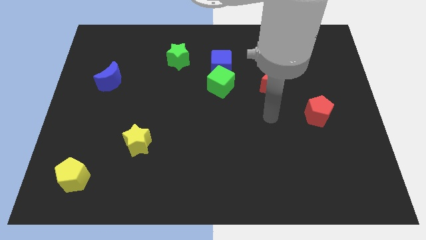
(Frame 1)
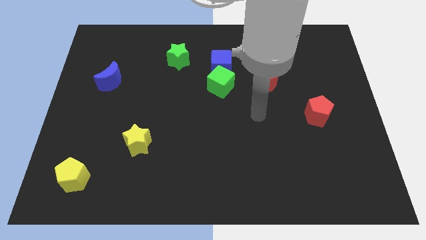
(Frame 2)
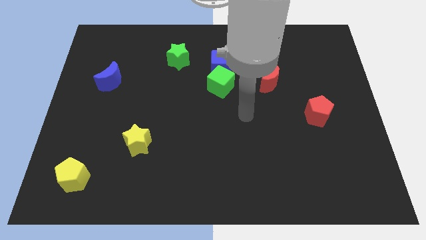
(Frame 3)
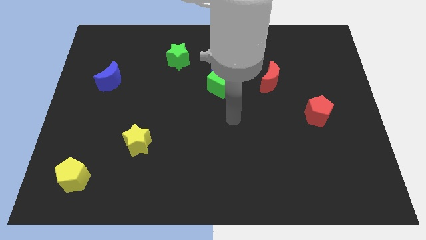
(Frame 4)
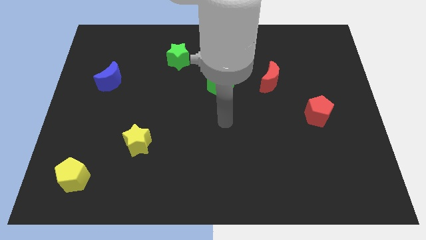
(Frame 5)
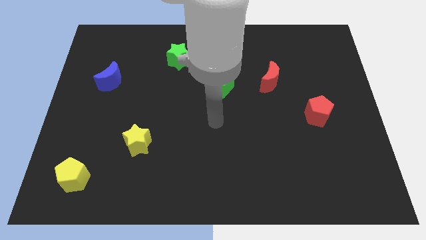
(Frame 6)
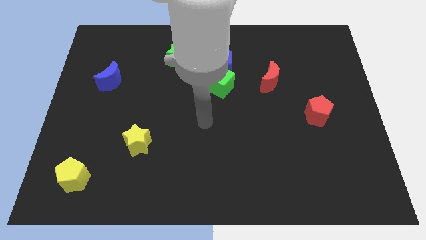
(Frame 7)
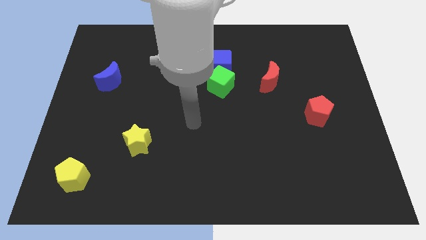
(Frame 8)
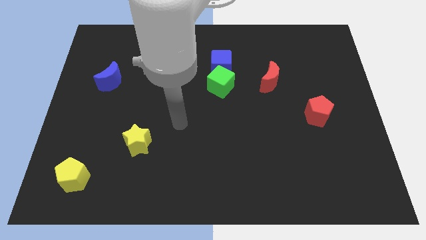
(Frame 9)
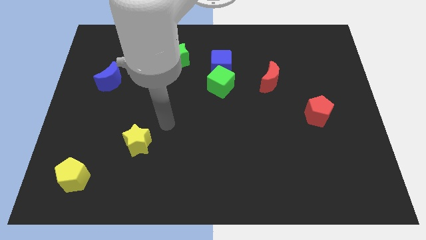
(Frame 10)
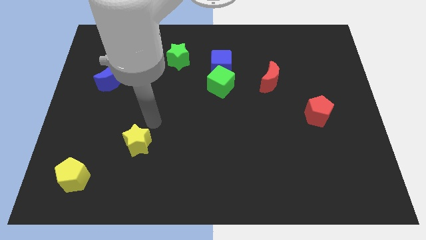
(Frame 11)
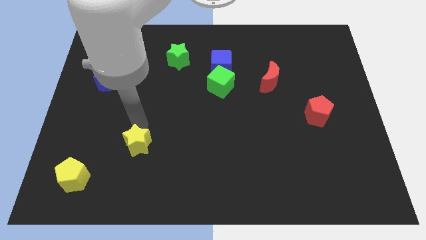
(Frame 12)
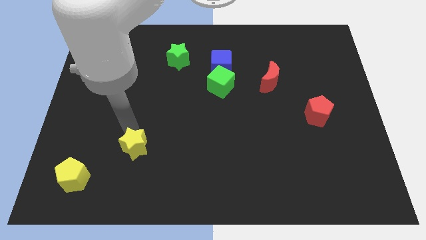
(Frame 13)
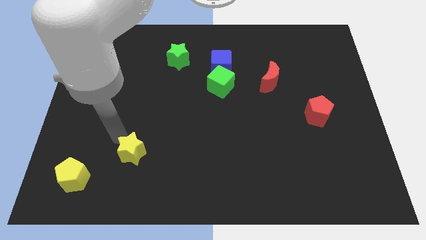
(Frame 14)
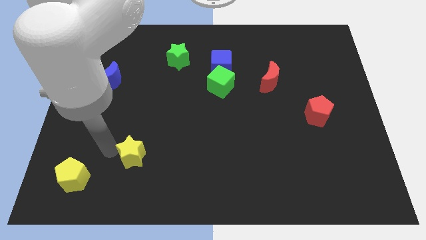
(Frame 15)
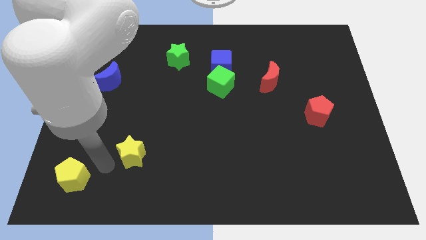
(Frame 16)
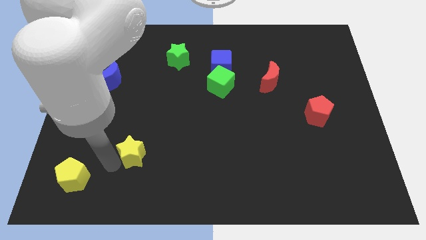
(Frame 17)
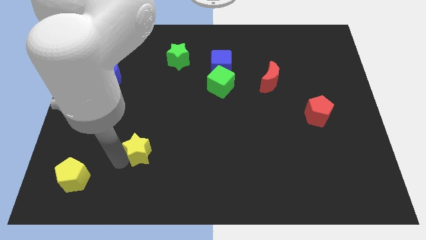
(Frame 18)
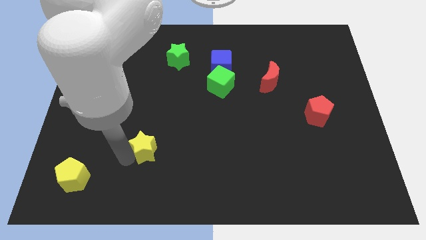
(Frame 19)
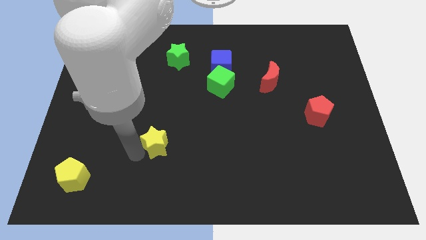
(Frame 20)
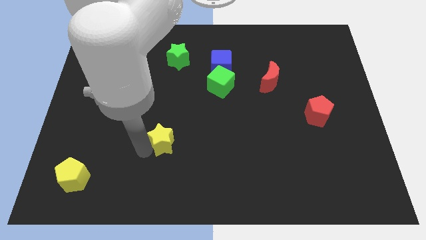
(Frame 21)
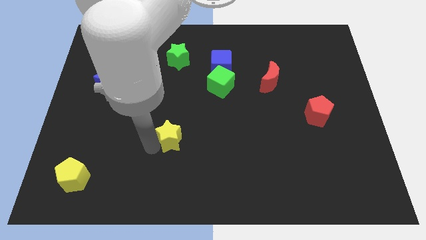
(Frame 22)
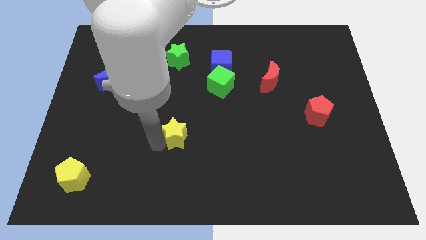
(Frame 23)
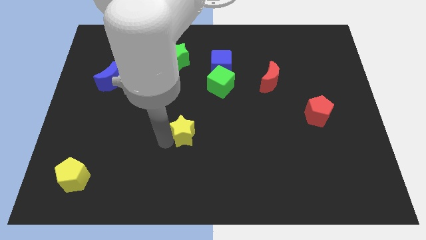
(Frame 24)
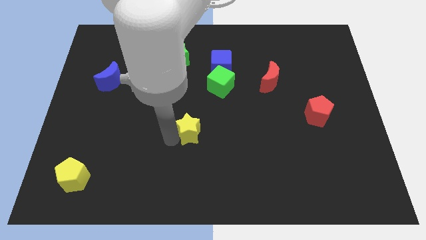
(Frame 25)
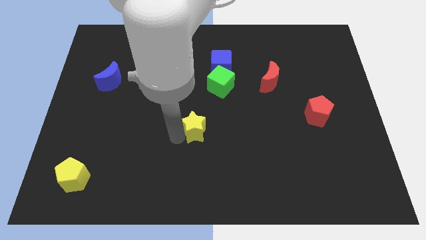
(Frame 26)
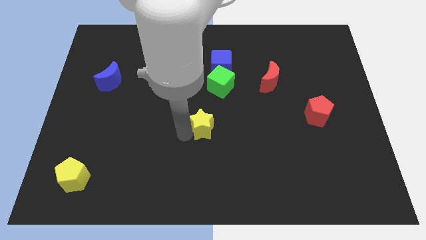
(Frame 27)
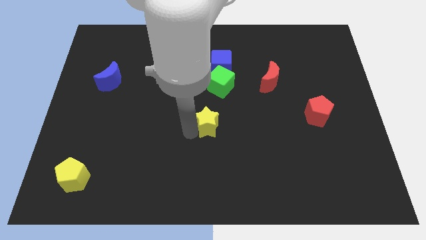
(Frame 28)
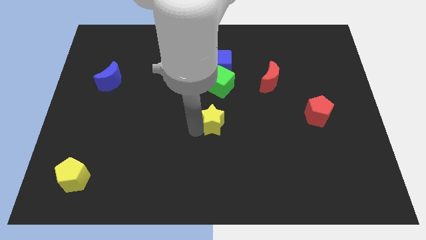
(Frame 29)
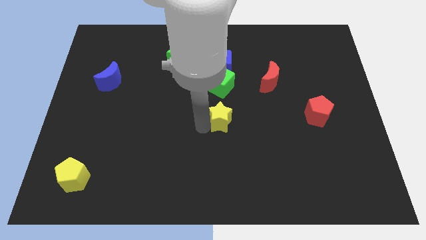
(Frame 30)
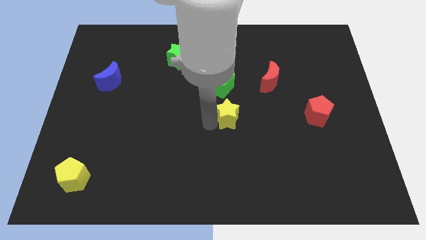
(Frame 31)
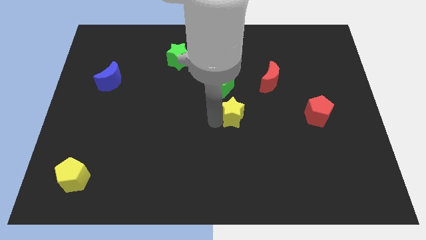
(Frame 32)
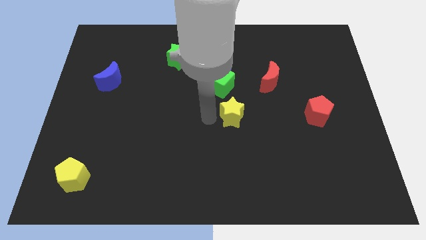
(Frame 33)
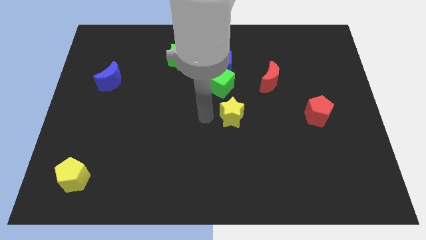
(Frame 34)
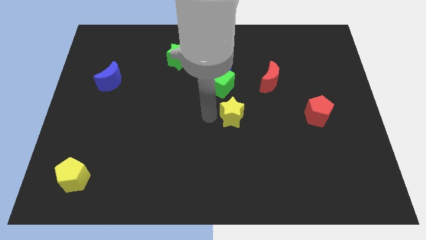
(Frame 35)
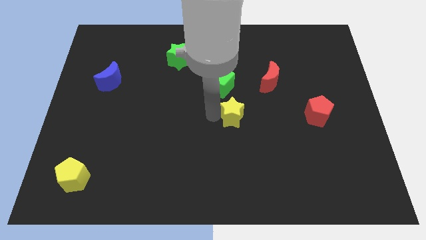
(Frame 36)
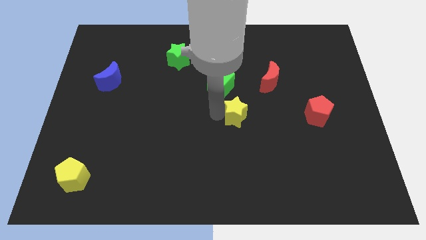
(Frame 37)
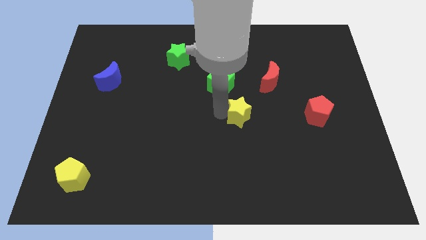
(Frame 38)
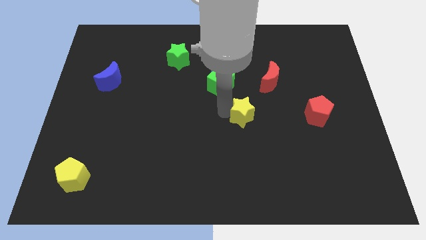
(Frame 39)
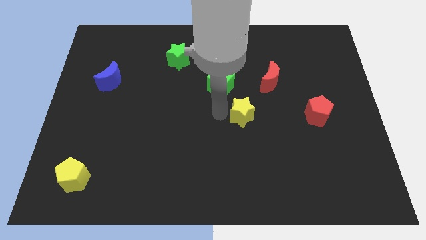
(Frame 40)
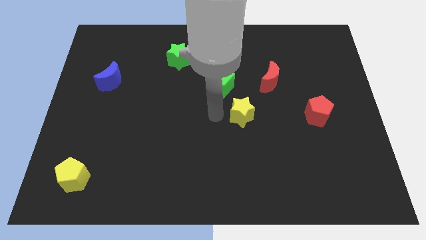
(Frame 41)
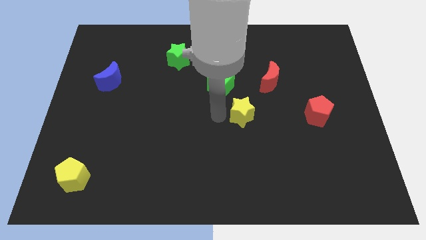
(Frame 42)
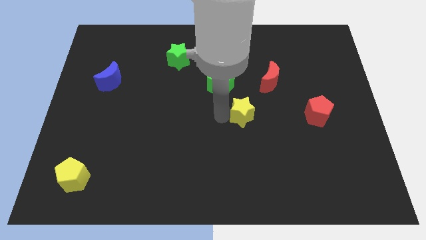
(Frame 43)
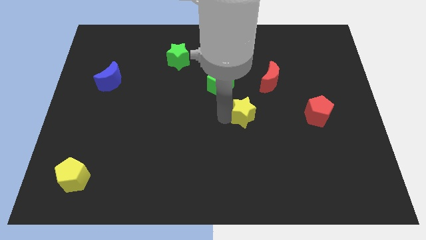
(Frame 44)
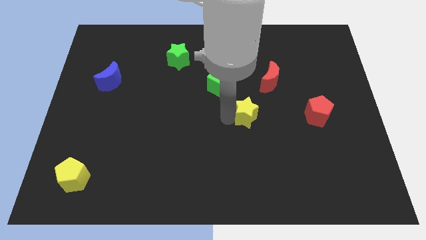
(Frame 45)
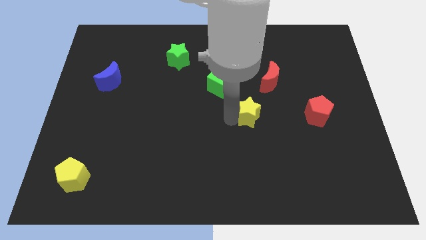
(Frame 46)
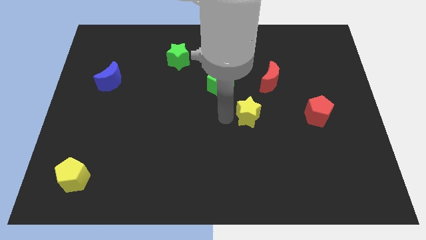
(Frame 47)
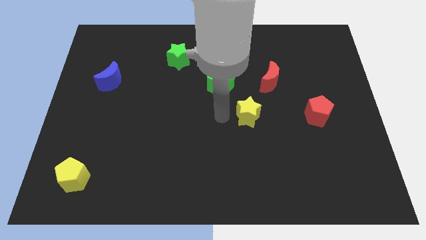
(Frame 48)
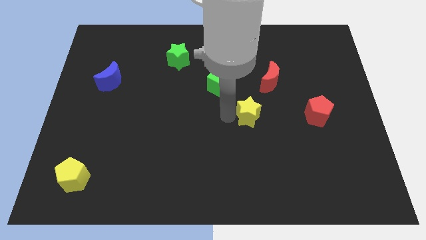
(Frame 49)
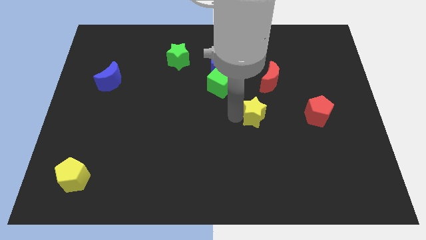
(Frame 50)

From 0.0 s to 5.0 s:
move the yellow star to the bottom of the red moon

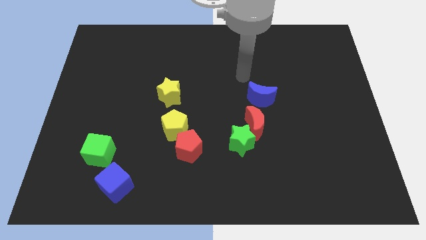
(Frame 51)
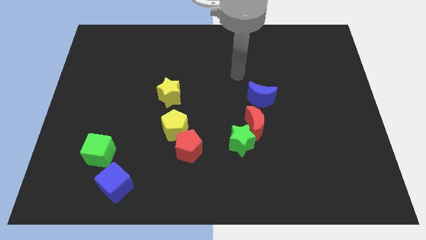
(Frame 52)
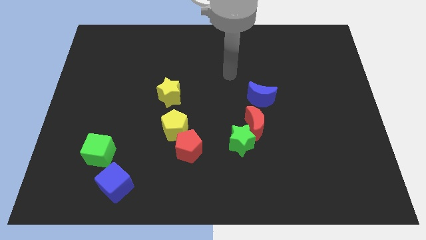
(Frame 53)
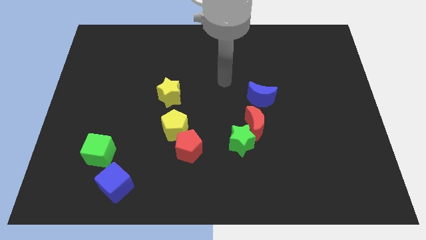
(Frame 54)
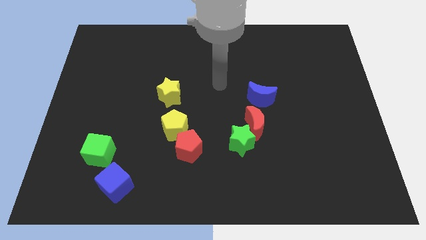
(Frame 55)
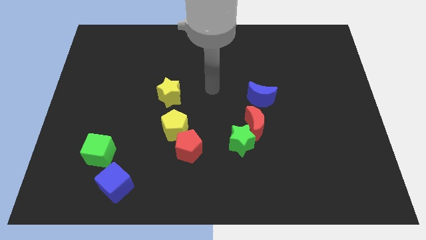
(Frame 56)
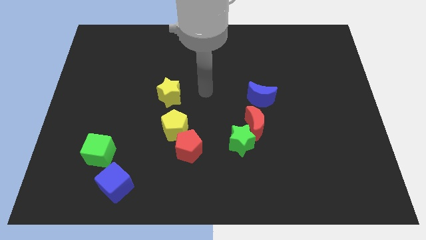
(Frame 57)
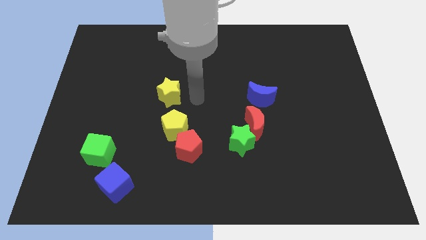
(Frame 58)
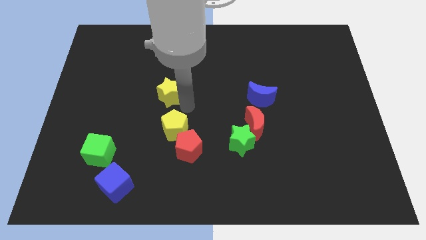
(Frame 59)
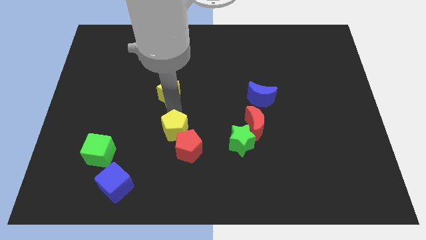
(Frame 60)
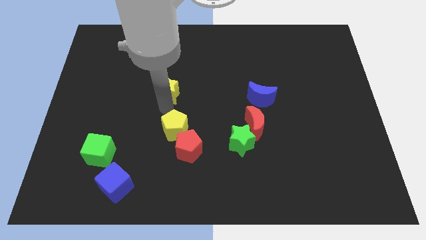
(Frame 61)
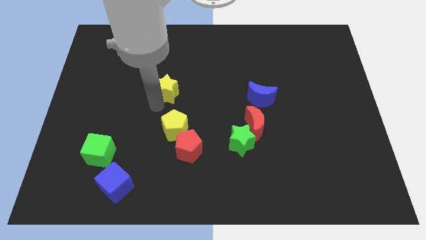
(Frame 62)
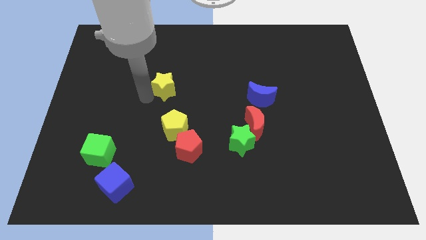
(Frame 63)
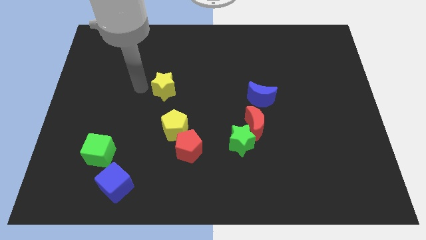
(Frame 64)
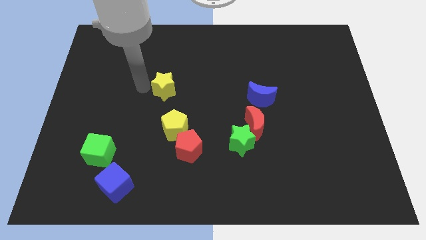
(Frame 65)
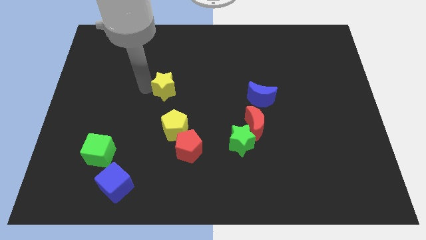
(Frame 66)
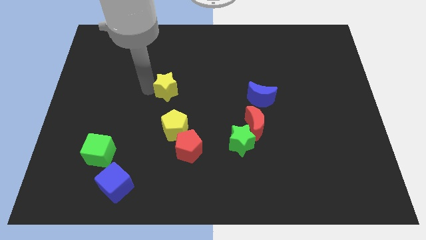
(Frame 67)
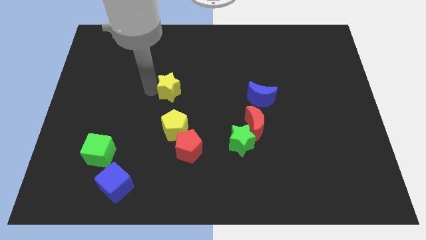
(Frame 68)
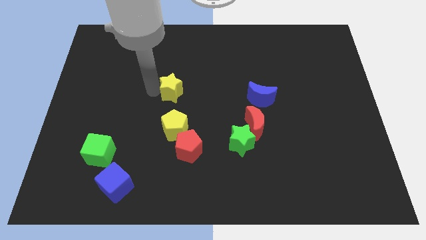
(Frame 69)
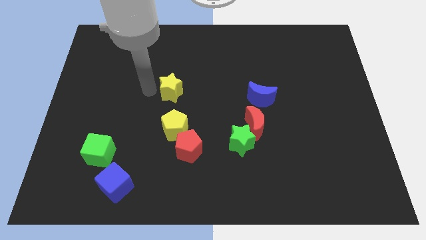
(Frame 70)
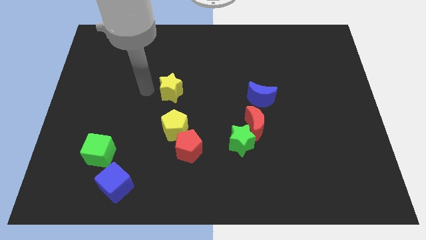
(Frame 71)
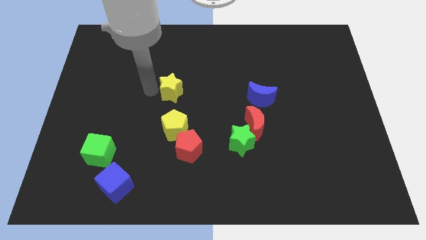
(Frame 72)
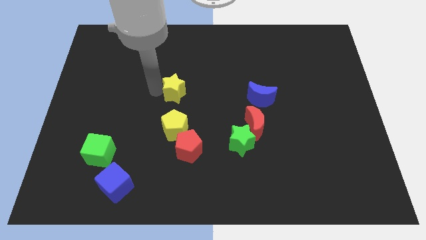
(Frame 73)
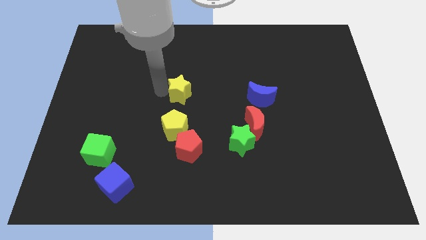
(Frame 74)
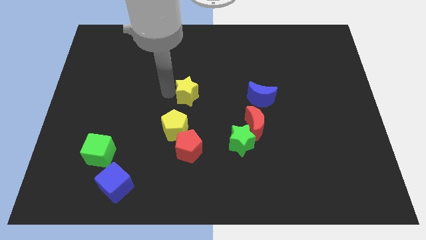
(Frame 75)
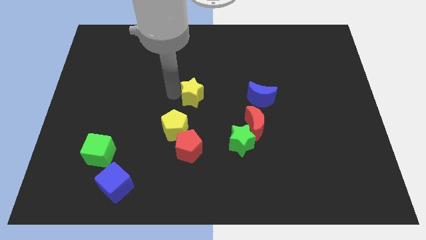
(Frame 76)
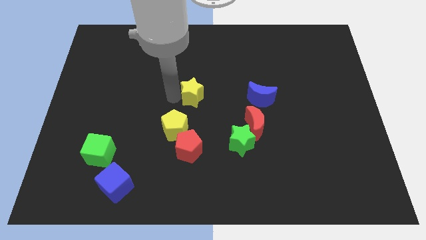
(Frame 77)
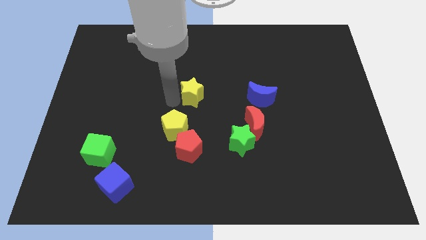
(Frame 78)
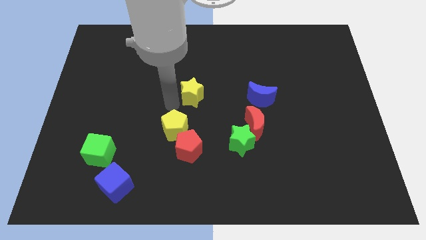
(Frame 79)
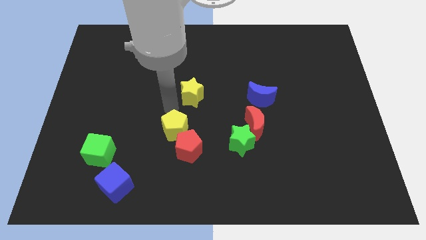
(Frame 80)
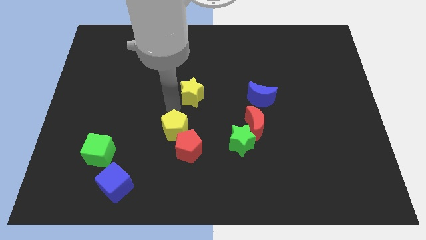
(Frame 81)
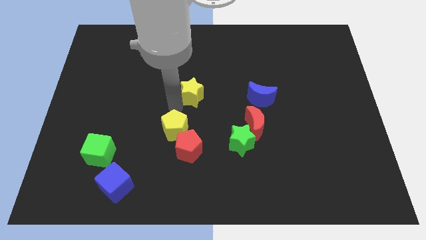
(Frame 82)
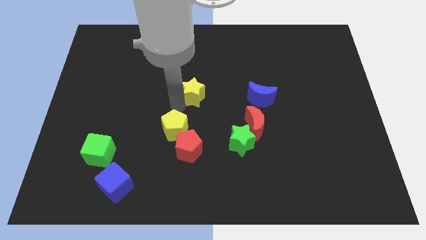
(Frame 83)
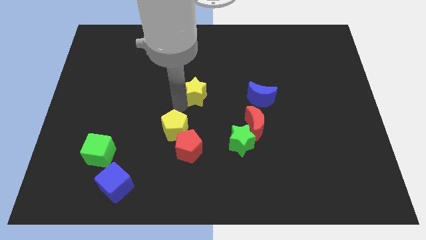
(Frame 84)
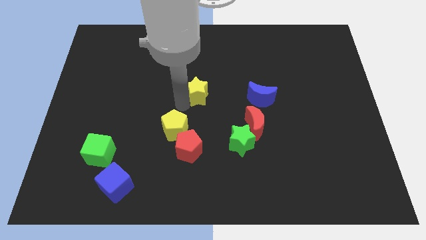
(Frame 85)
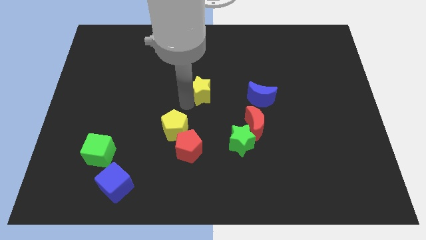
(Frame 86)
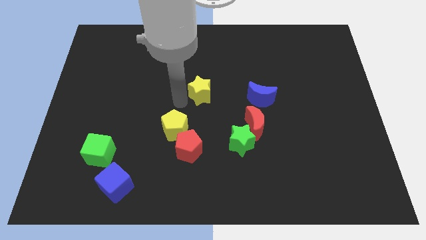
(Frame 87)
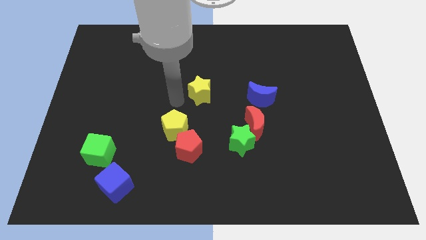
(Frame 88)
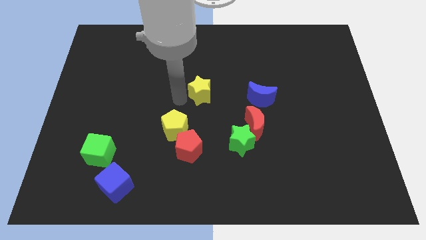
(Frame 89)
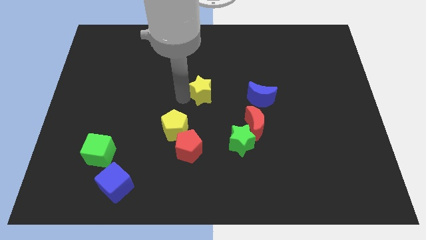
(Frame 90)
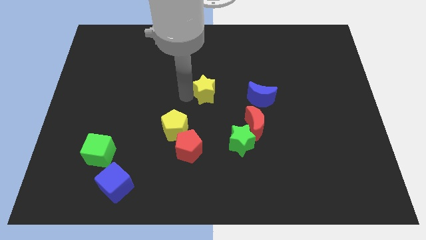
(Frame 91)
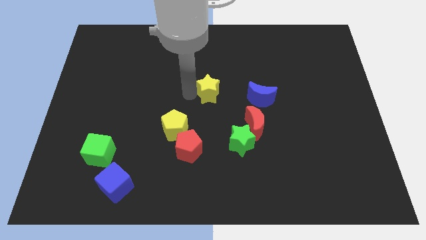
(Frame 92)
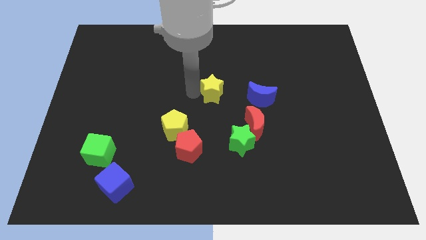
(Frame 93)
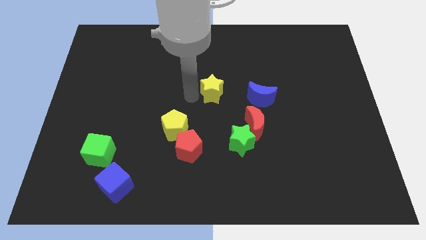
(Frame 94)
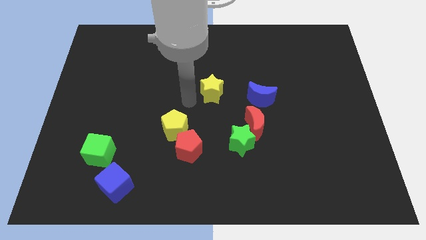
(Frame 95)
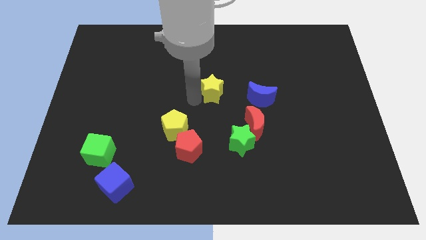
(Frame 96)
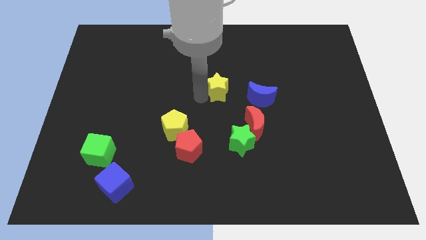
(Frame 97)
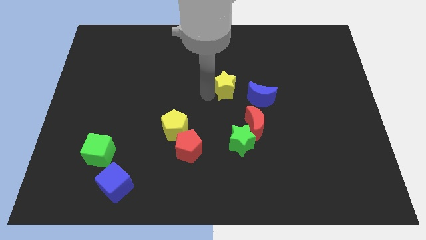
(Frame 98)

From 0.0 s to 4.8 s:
put the yellow star diagonally up and to the left of the blue moon
